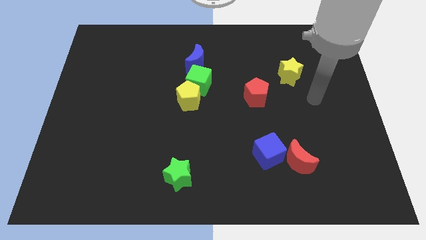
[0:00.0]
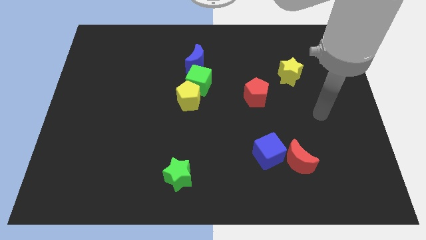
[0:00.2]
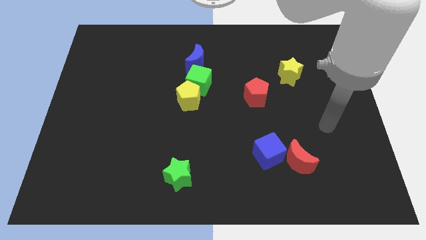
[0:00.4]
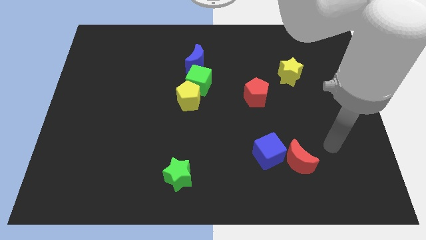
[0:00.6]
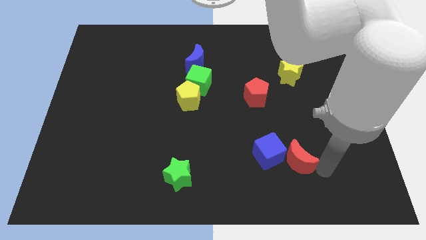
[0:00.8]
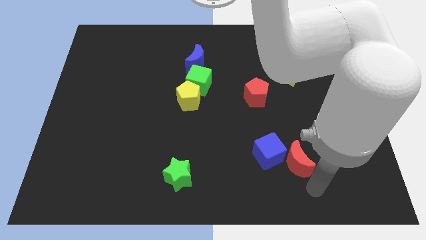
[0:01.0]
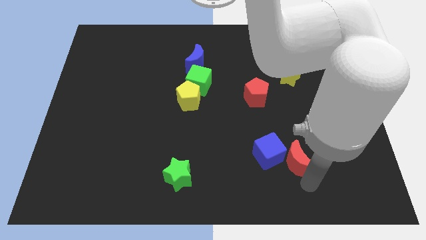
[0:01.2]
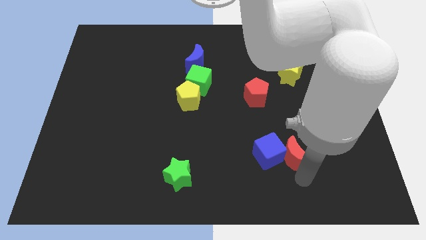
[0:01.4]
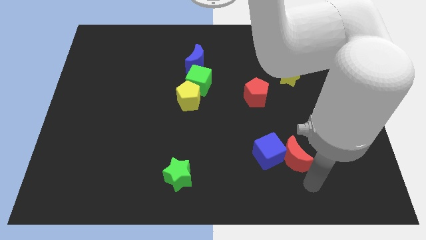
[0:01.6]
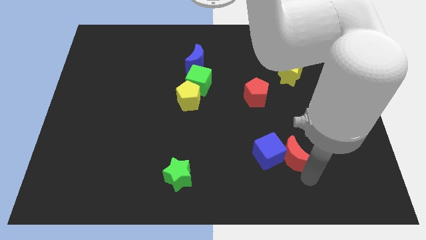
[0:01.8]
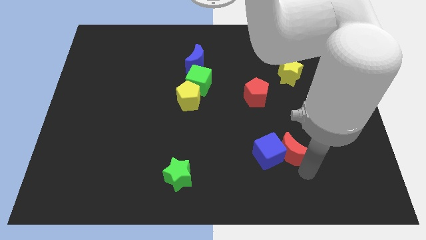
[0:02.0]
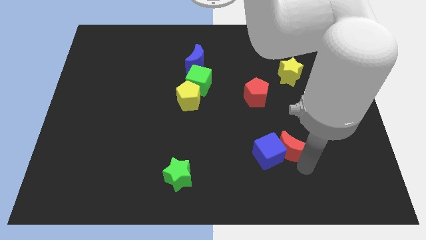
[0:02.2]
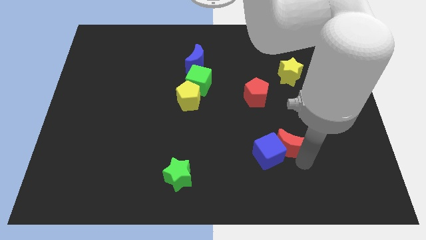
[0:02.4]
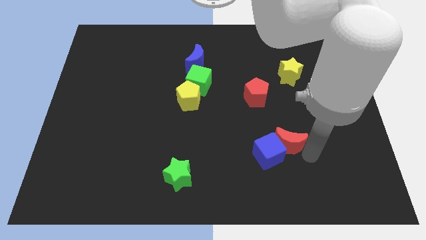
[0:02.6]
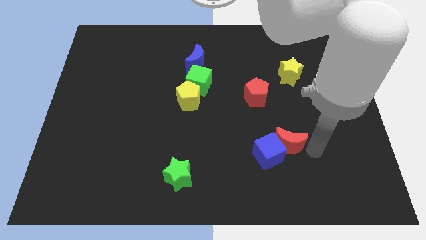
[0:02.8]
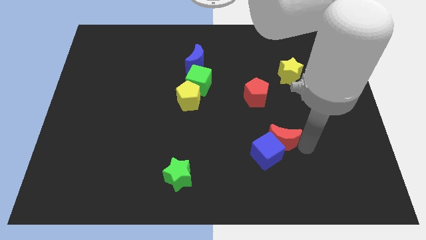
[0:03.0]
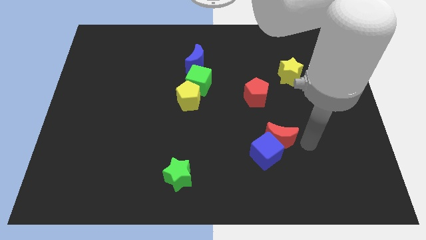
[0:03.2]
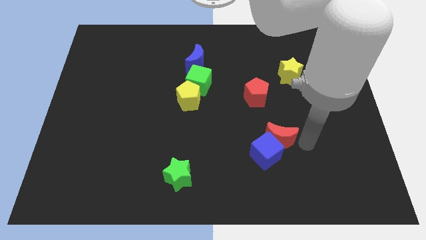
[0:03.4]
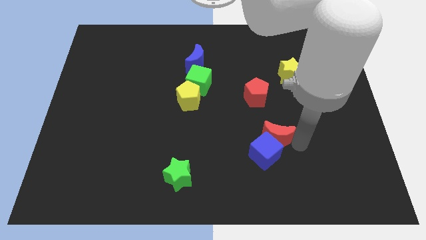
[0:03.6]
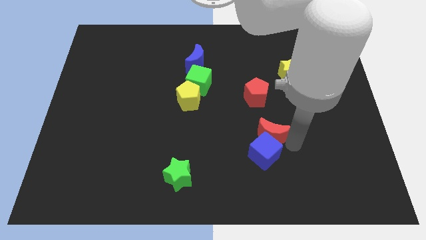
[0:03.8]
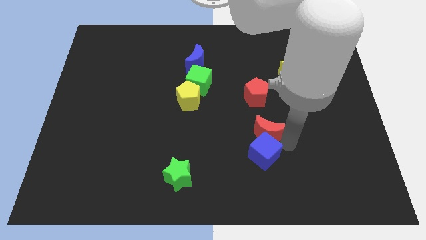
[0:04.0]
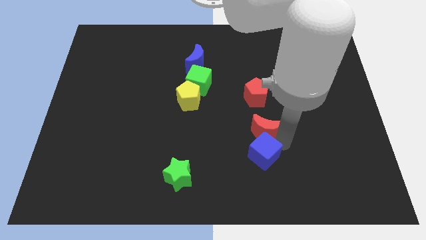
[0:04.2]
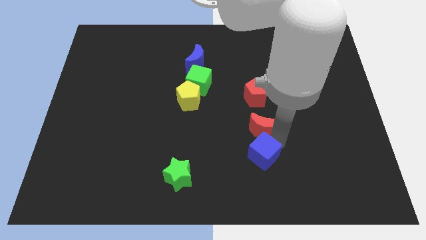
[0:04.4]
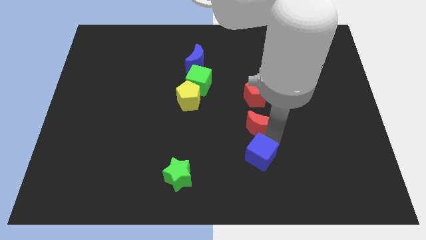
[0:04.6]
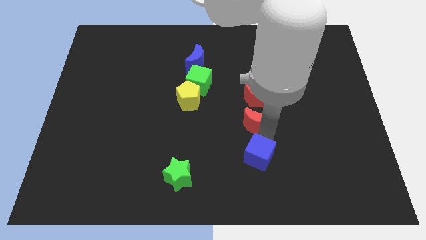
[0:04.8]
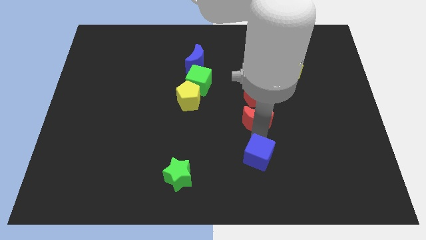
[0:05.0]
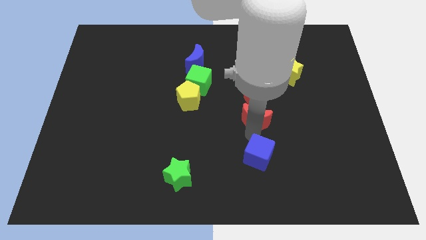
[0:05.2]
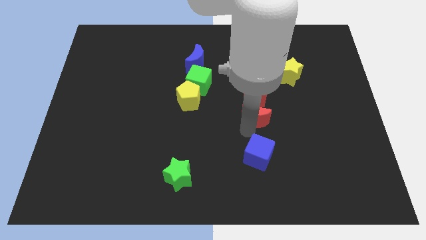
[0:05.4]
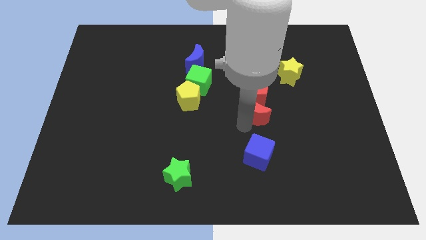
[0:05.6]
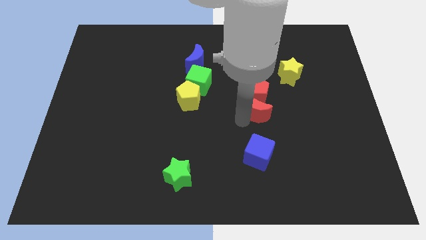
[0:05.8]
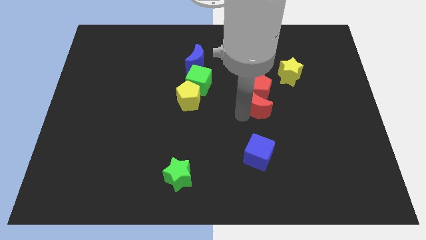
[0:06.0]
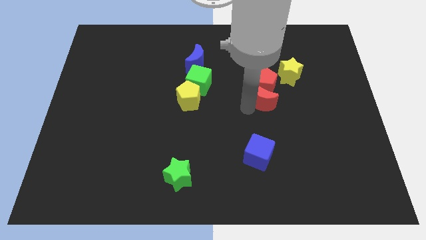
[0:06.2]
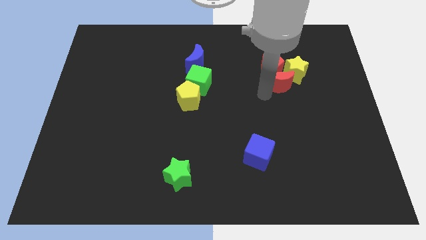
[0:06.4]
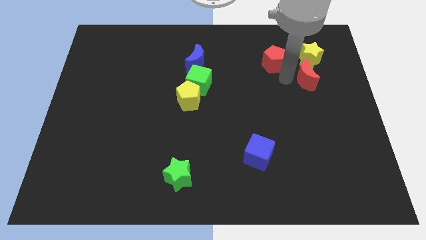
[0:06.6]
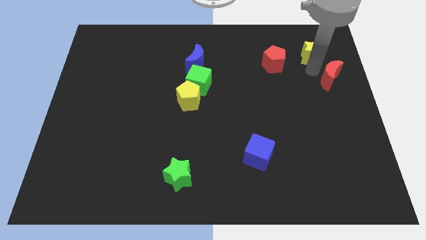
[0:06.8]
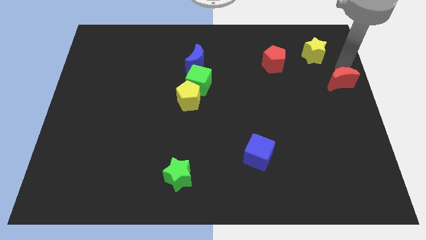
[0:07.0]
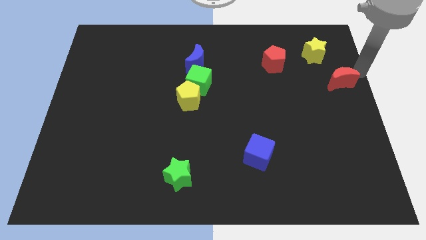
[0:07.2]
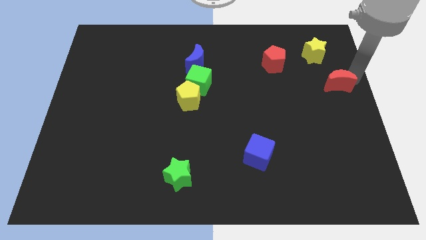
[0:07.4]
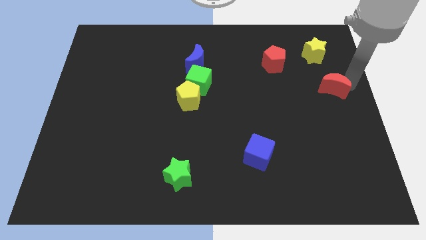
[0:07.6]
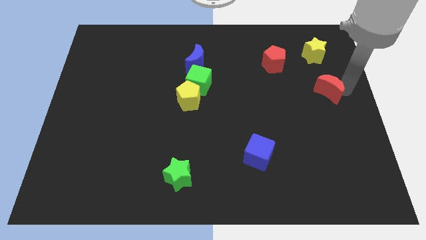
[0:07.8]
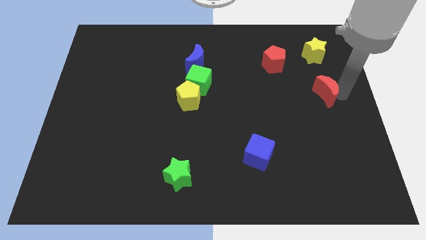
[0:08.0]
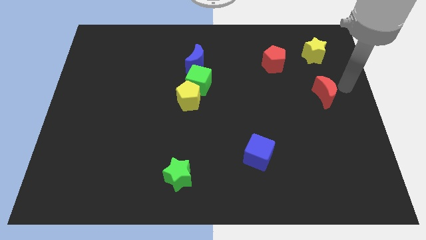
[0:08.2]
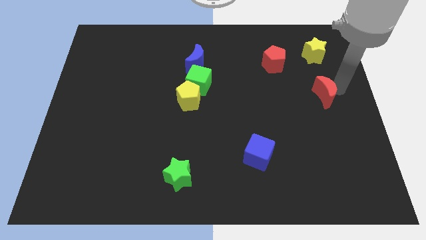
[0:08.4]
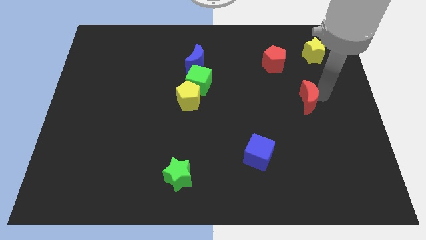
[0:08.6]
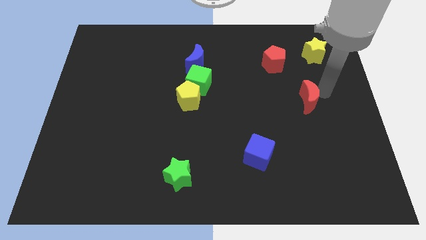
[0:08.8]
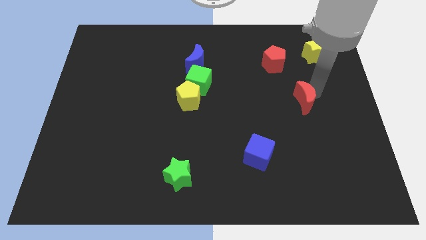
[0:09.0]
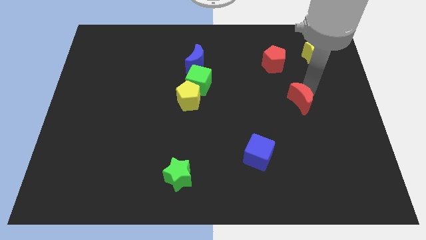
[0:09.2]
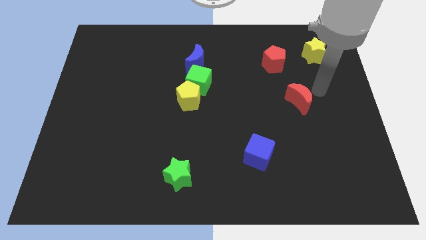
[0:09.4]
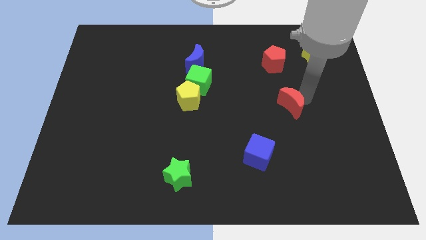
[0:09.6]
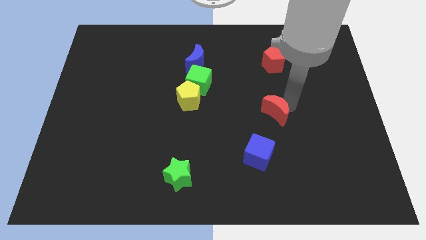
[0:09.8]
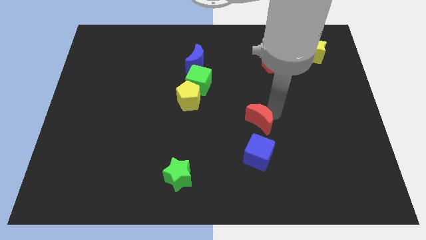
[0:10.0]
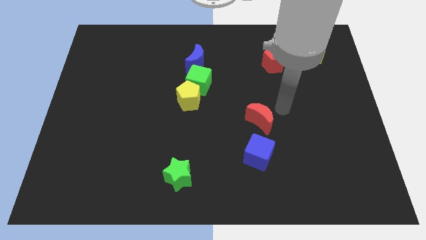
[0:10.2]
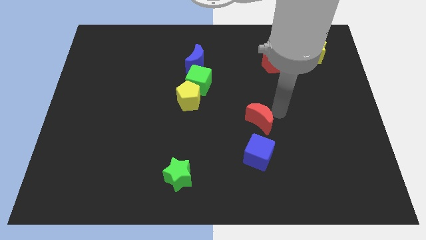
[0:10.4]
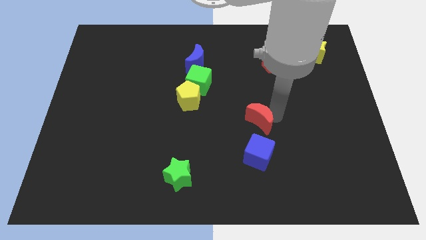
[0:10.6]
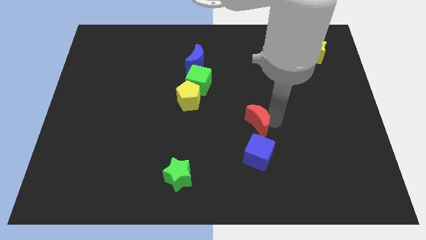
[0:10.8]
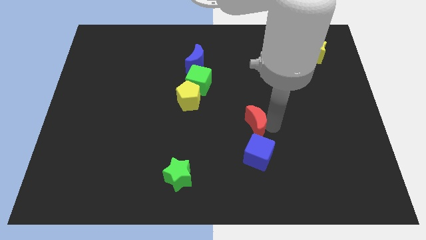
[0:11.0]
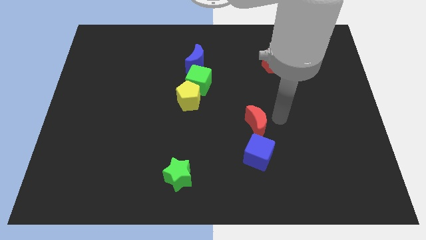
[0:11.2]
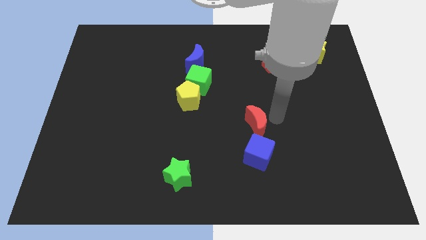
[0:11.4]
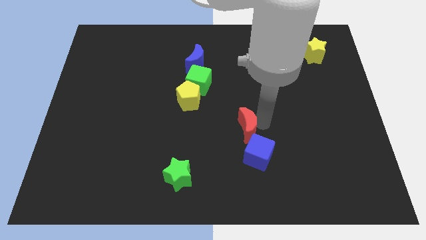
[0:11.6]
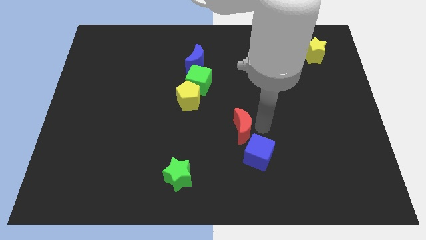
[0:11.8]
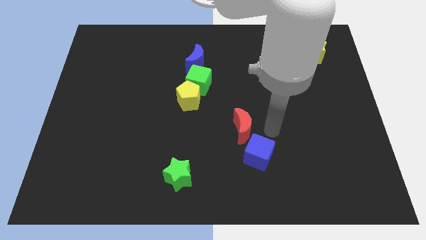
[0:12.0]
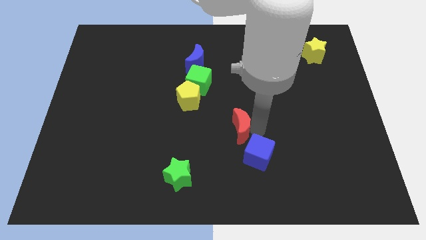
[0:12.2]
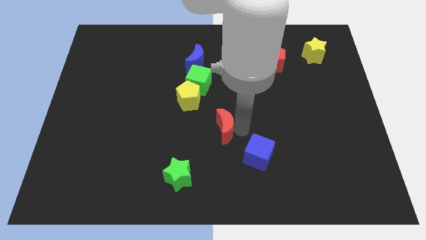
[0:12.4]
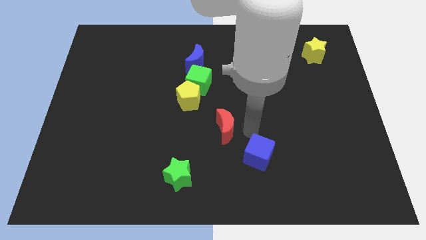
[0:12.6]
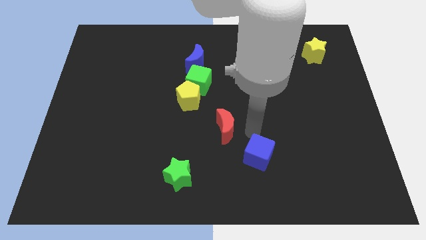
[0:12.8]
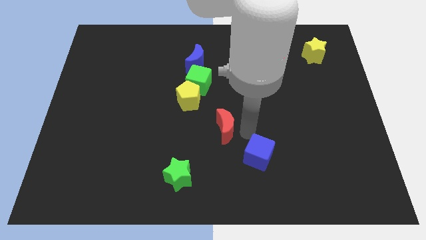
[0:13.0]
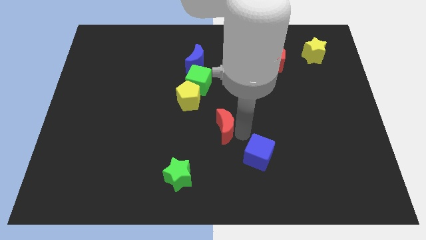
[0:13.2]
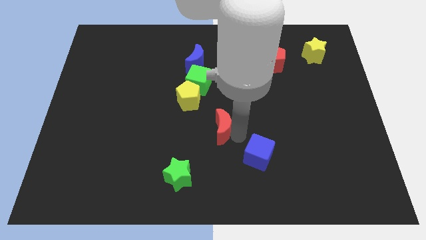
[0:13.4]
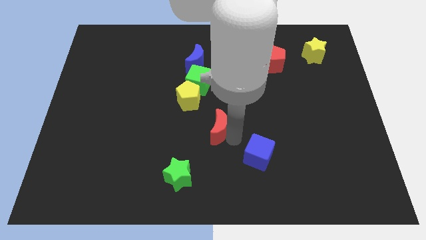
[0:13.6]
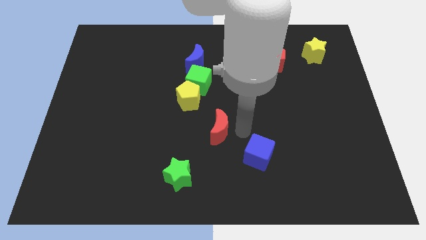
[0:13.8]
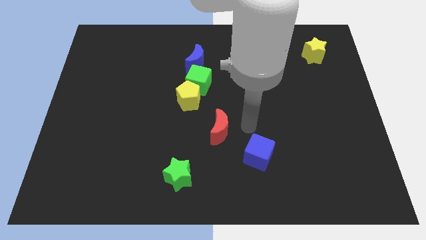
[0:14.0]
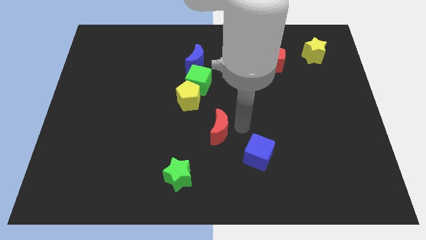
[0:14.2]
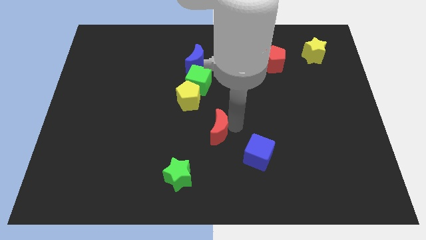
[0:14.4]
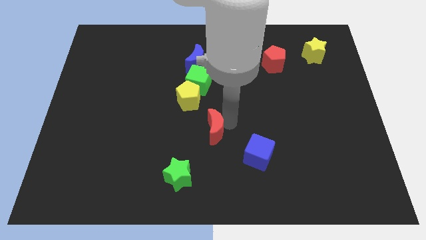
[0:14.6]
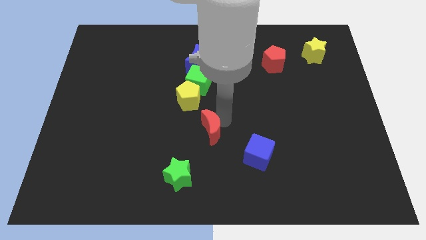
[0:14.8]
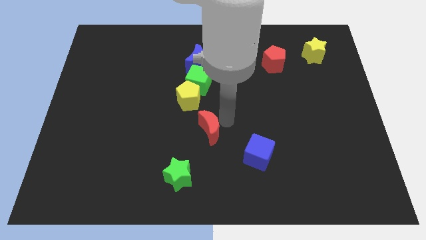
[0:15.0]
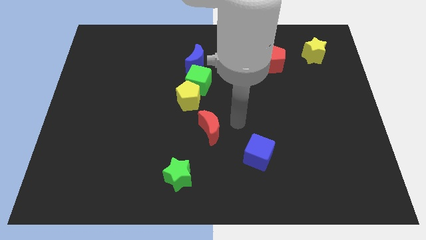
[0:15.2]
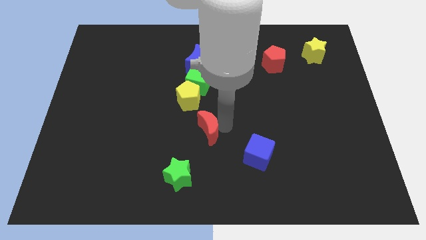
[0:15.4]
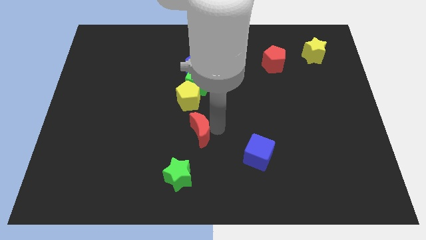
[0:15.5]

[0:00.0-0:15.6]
put the red moon to the bottom side of the yellow pentagon
